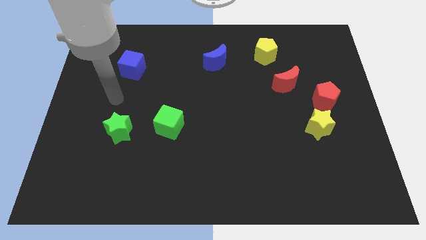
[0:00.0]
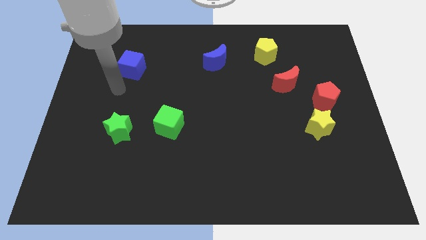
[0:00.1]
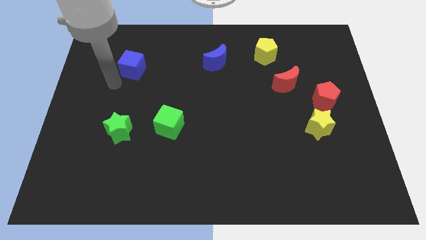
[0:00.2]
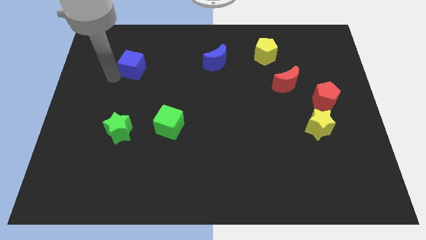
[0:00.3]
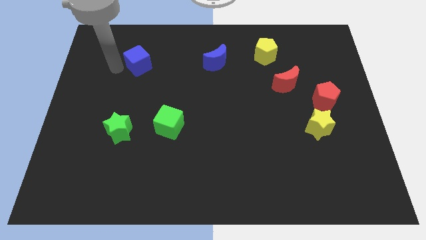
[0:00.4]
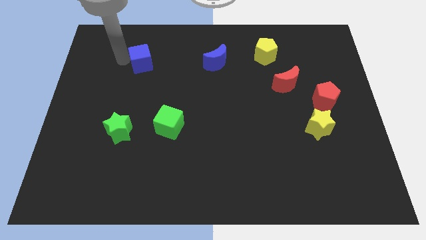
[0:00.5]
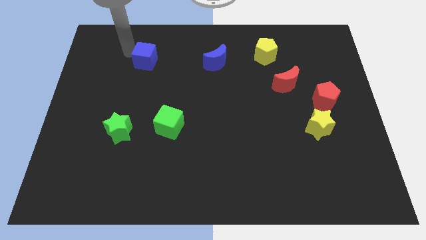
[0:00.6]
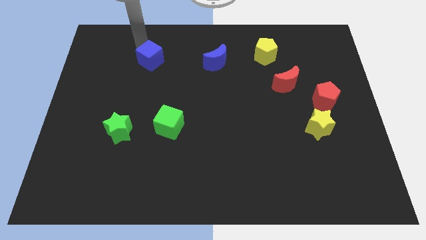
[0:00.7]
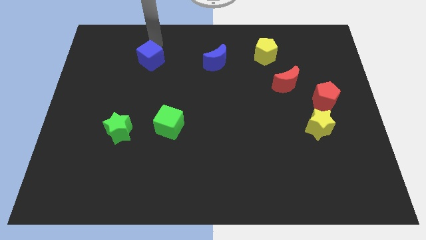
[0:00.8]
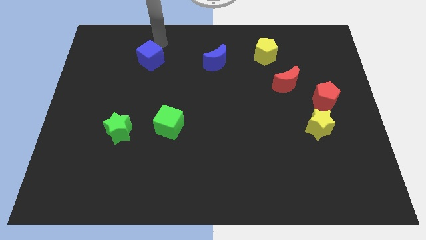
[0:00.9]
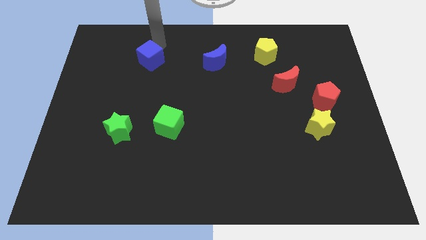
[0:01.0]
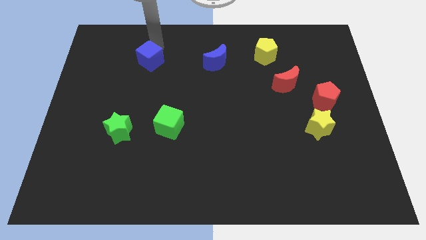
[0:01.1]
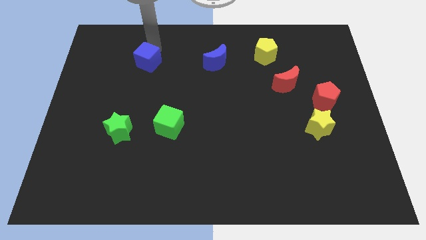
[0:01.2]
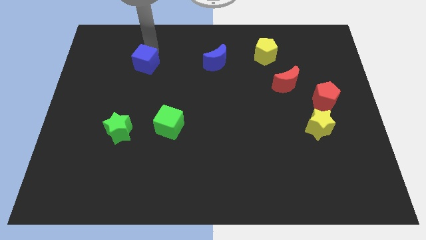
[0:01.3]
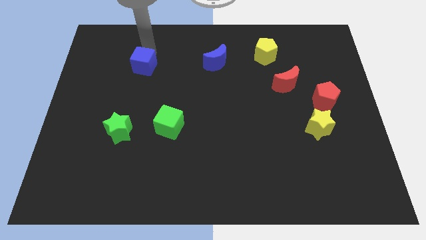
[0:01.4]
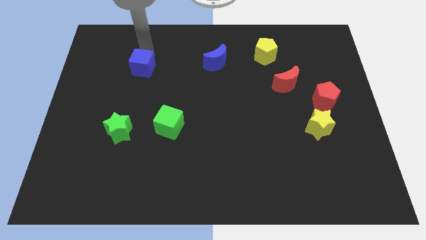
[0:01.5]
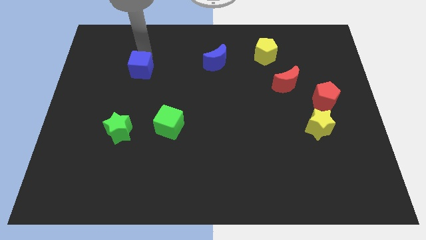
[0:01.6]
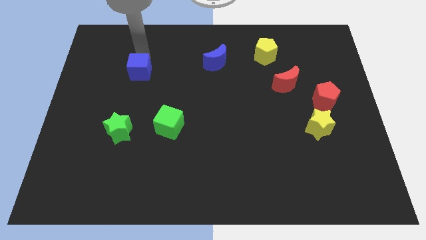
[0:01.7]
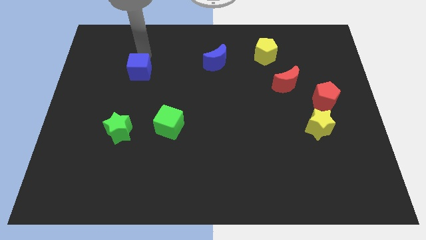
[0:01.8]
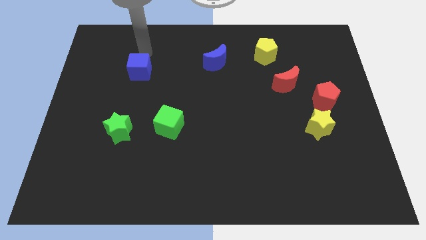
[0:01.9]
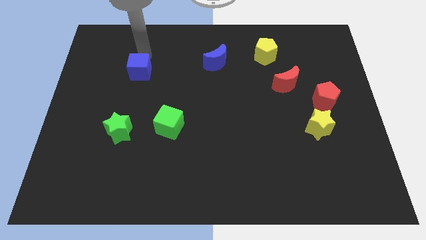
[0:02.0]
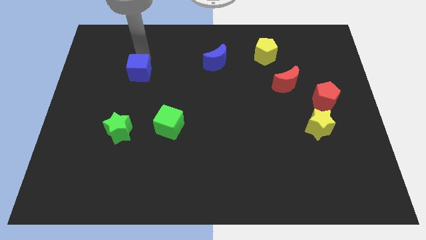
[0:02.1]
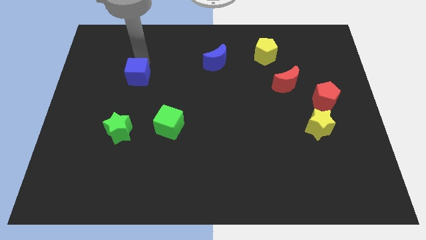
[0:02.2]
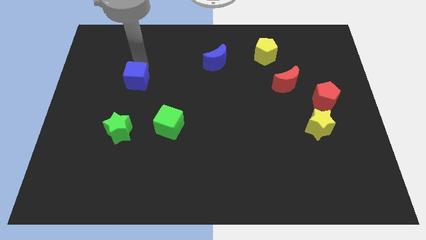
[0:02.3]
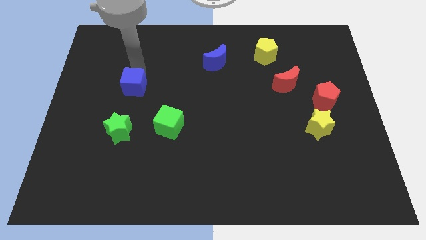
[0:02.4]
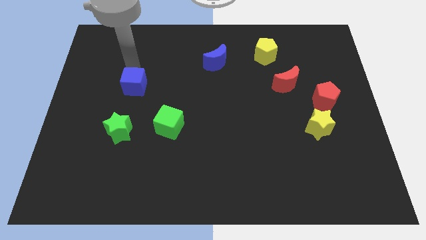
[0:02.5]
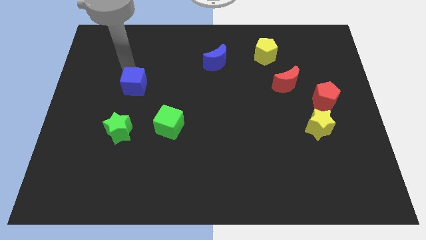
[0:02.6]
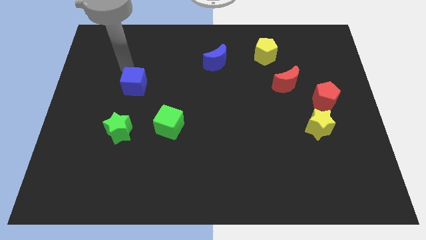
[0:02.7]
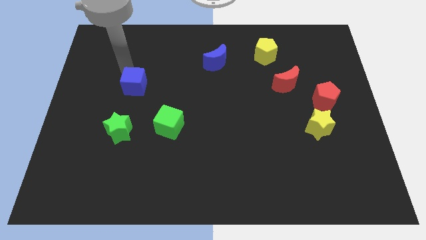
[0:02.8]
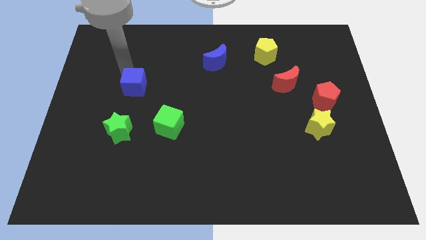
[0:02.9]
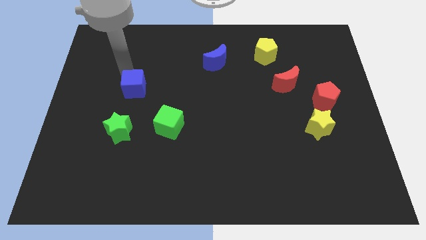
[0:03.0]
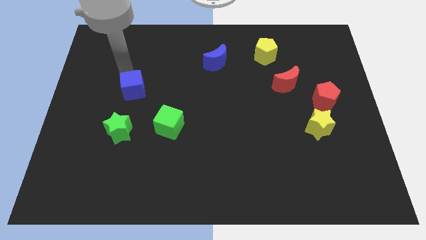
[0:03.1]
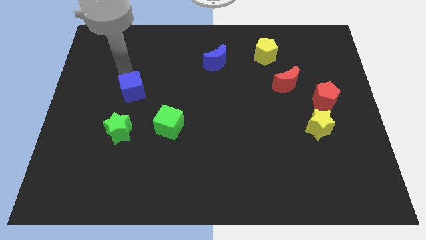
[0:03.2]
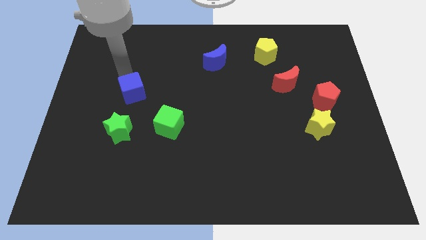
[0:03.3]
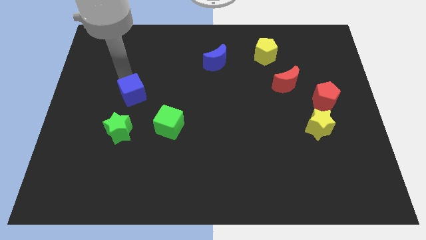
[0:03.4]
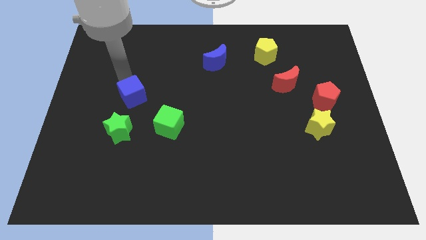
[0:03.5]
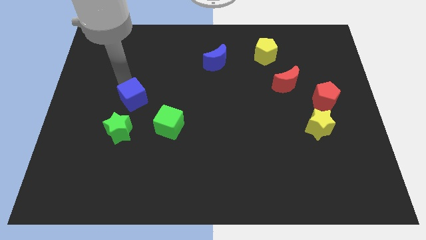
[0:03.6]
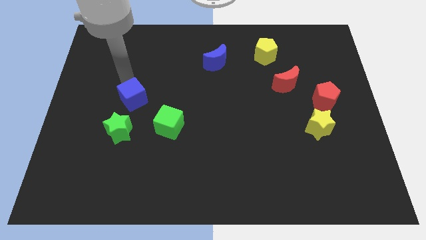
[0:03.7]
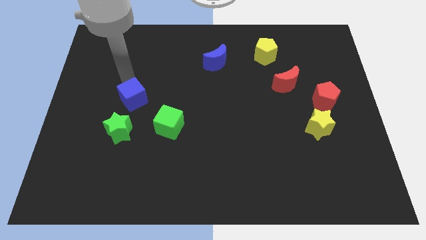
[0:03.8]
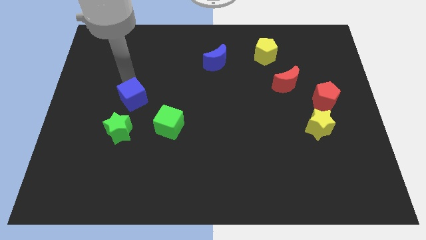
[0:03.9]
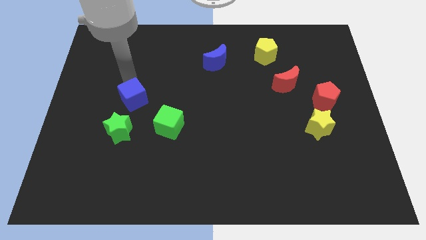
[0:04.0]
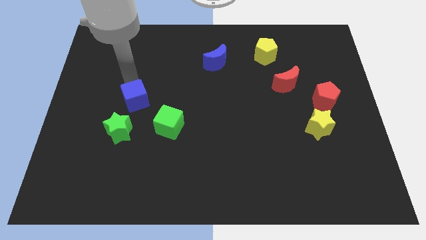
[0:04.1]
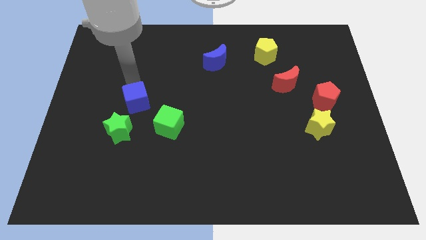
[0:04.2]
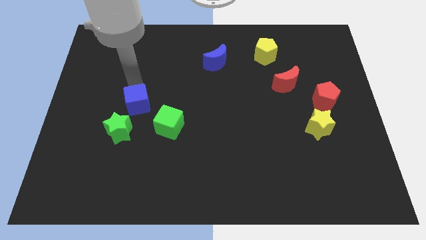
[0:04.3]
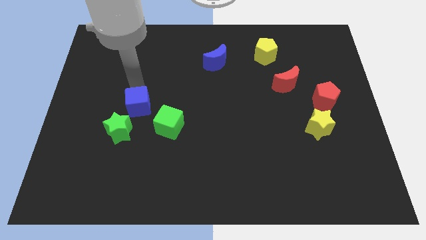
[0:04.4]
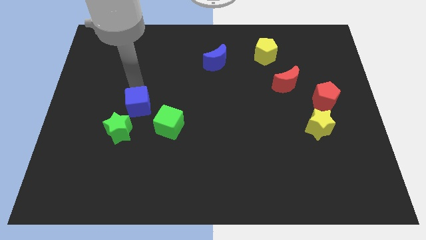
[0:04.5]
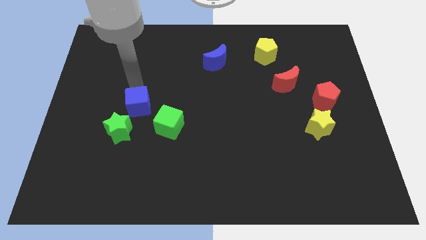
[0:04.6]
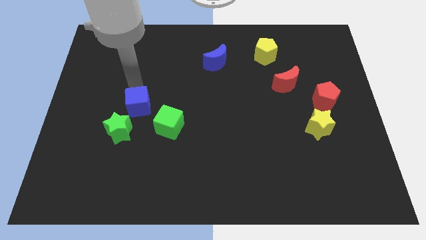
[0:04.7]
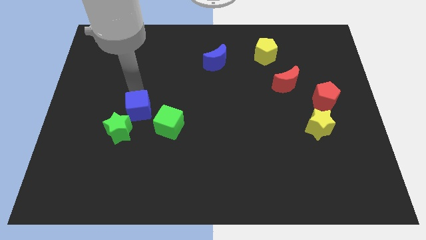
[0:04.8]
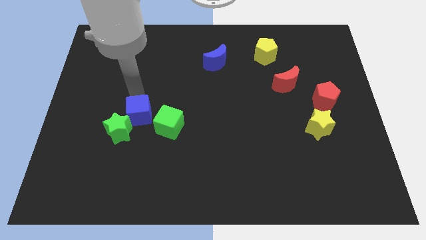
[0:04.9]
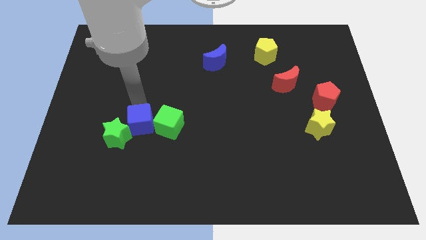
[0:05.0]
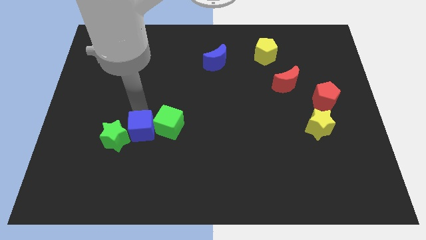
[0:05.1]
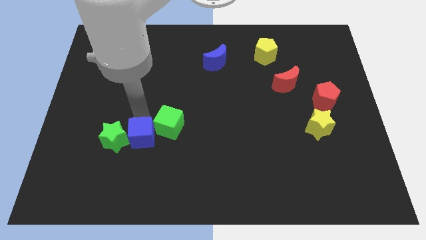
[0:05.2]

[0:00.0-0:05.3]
move the blue cube to the bottom right side of the green star

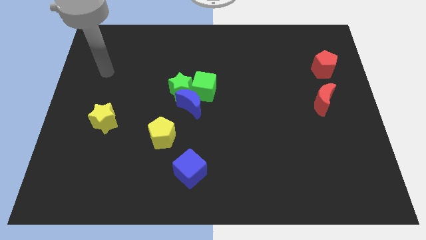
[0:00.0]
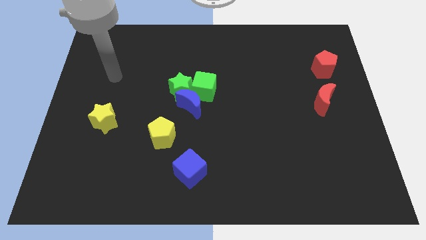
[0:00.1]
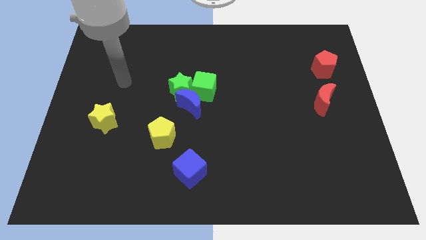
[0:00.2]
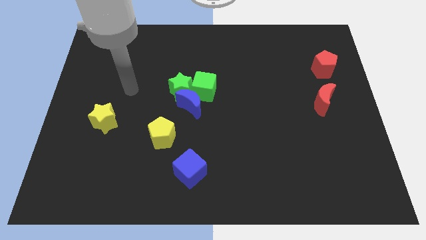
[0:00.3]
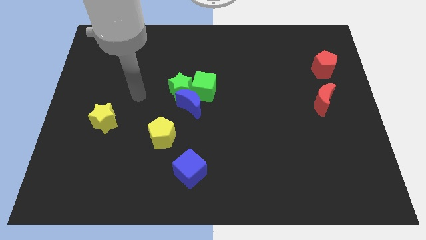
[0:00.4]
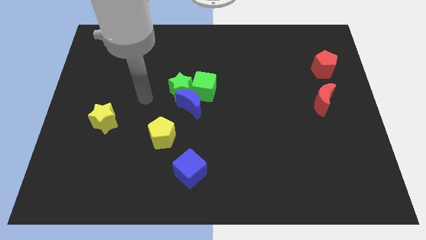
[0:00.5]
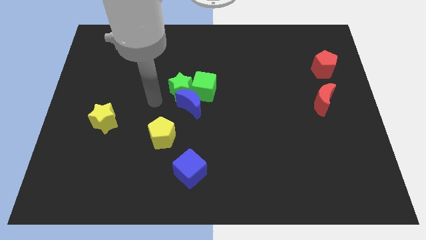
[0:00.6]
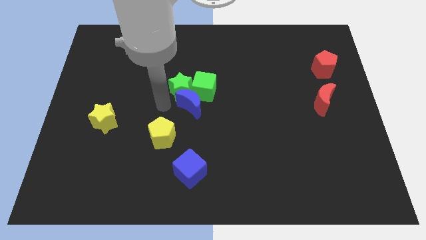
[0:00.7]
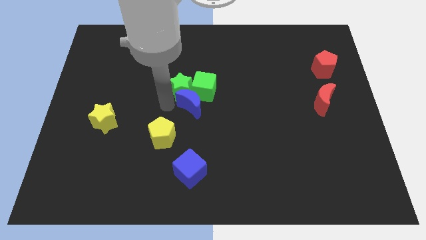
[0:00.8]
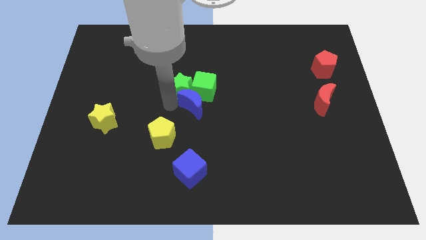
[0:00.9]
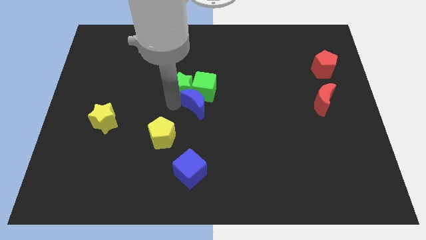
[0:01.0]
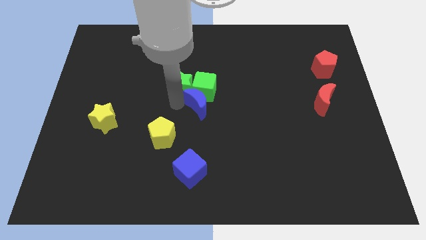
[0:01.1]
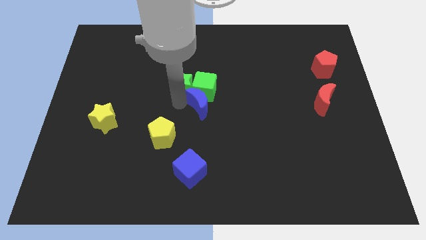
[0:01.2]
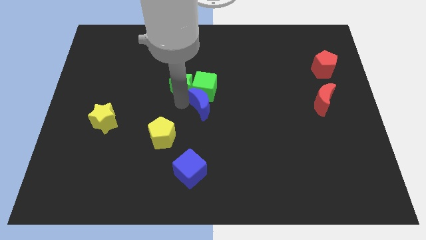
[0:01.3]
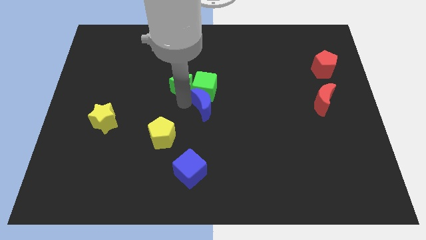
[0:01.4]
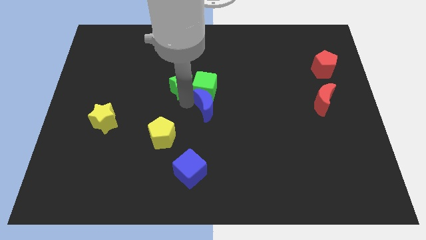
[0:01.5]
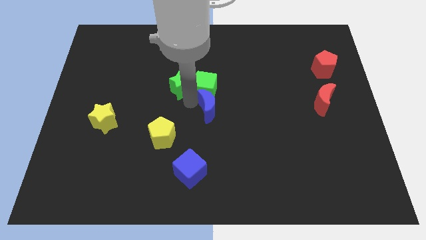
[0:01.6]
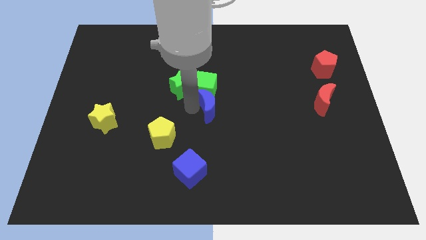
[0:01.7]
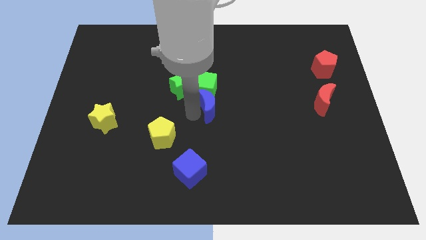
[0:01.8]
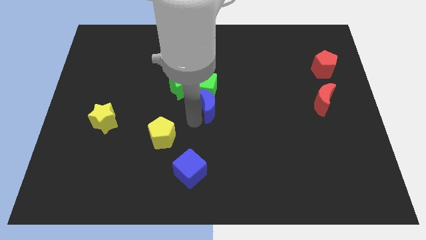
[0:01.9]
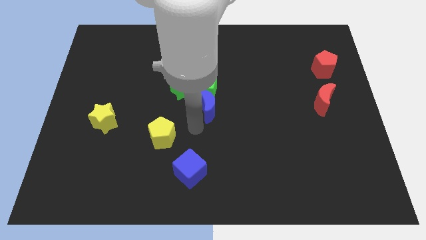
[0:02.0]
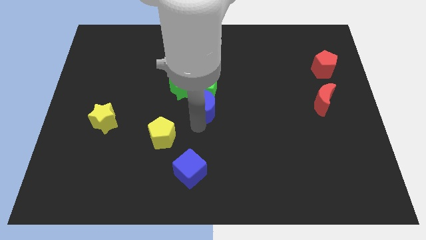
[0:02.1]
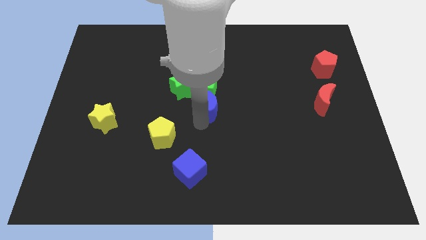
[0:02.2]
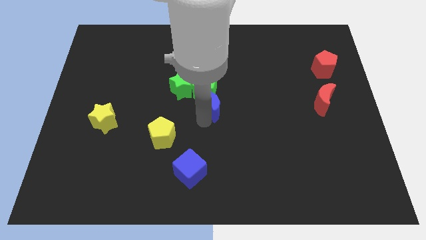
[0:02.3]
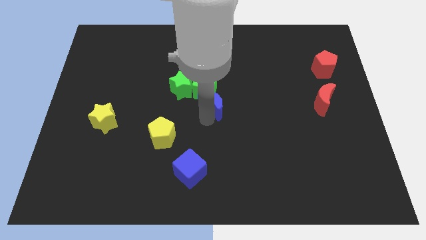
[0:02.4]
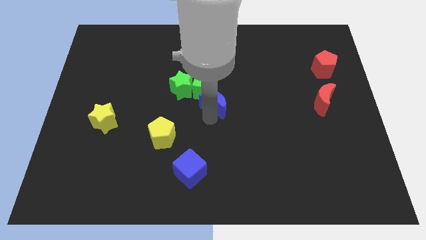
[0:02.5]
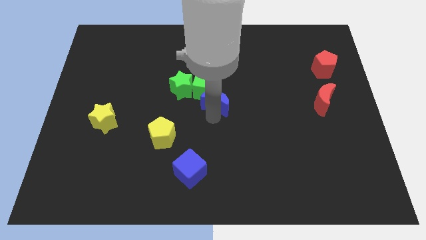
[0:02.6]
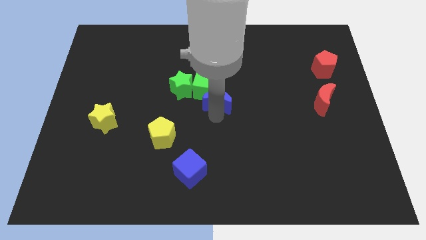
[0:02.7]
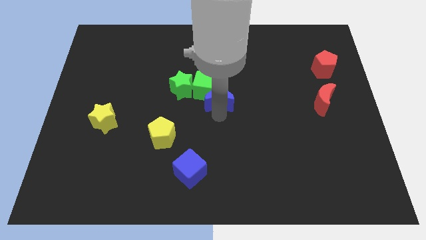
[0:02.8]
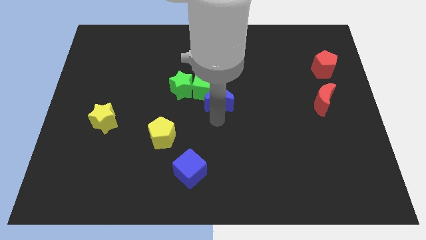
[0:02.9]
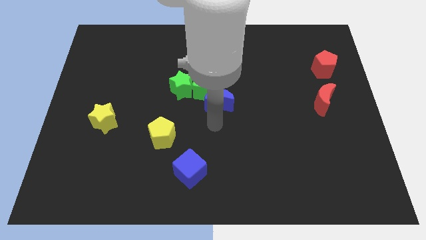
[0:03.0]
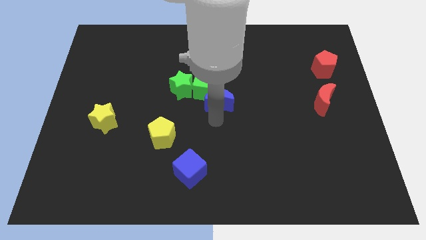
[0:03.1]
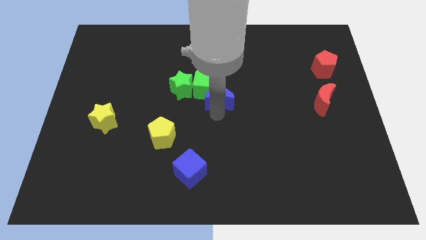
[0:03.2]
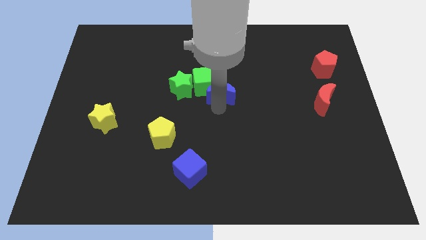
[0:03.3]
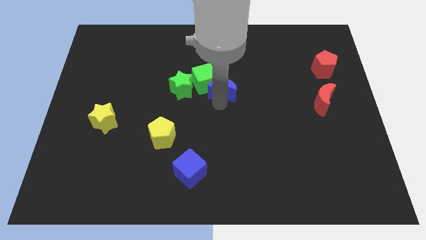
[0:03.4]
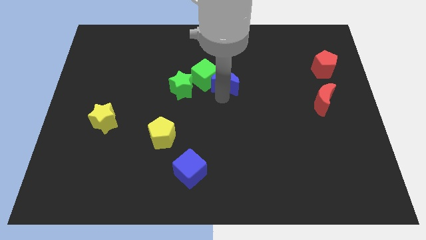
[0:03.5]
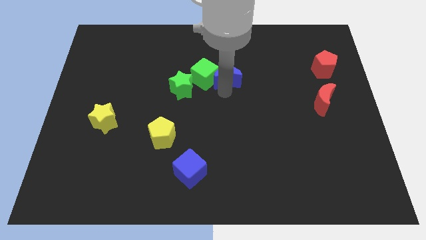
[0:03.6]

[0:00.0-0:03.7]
move the blue moon diagonally up and to the right of the green cube
